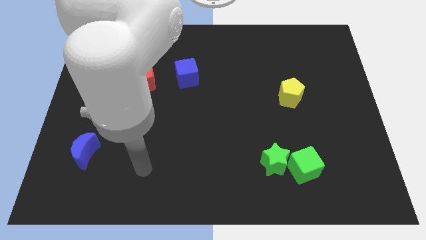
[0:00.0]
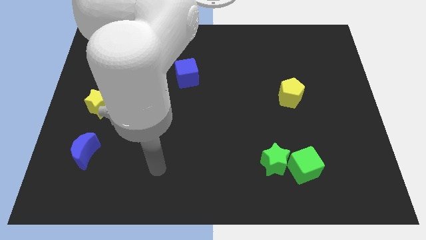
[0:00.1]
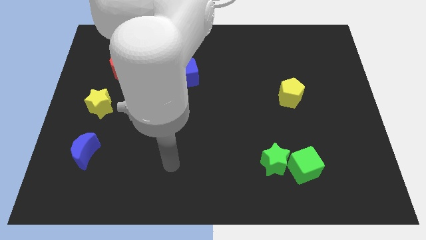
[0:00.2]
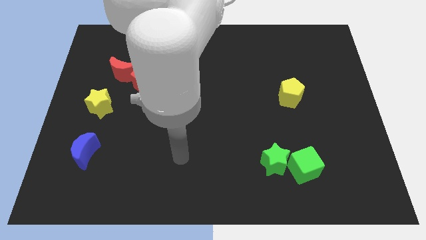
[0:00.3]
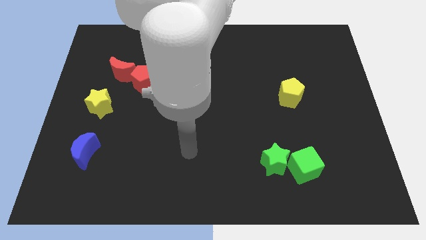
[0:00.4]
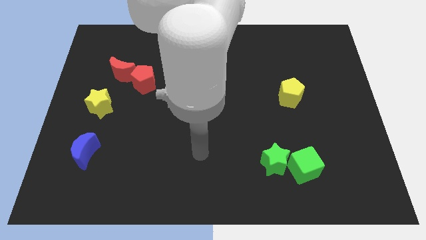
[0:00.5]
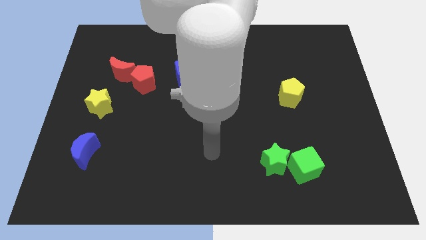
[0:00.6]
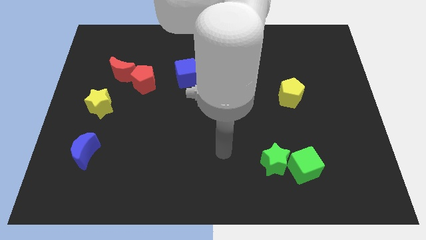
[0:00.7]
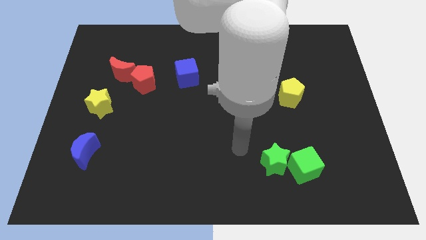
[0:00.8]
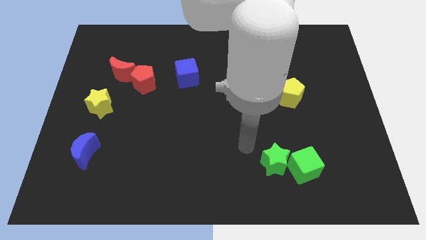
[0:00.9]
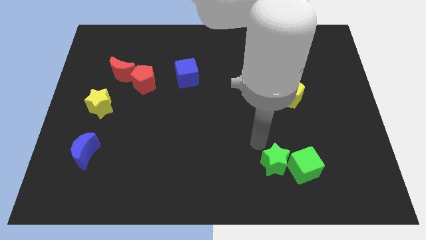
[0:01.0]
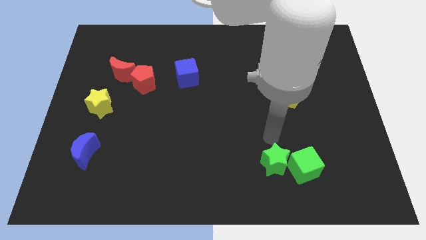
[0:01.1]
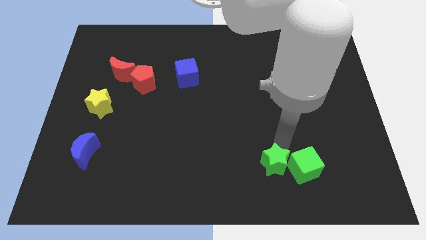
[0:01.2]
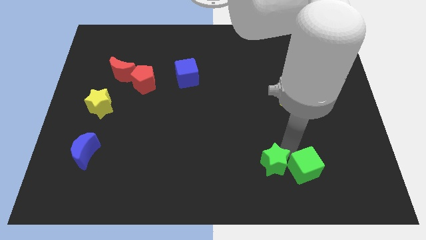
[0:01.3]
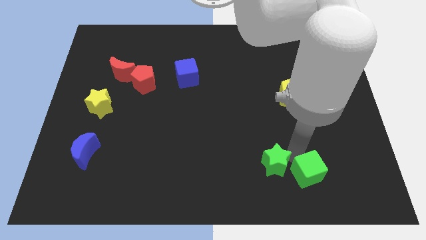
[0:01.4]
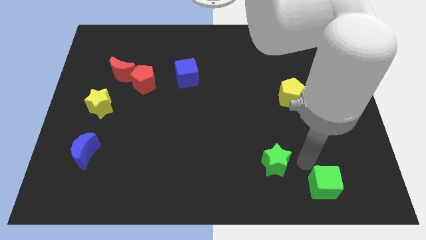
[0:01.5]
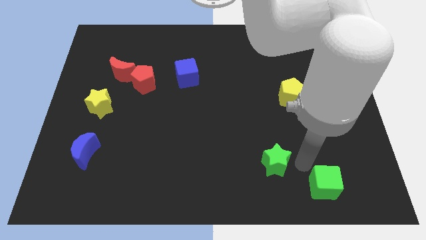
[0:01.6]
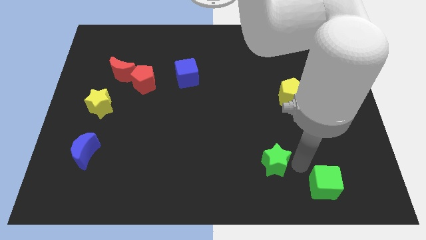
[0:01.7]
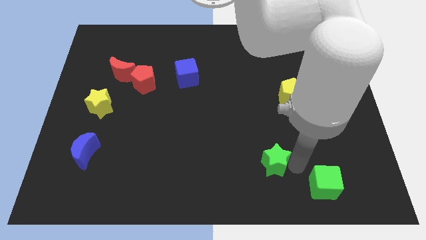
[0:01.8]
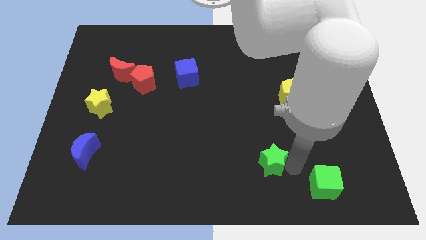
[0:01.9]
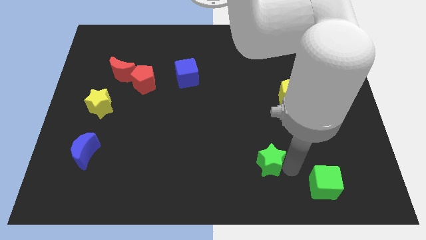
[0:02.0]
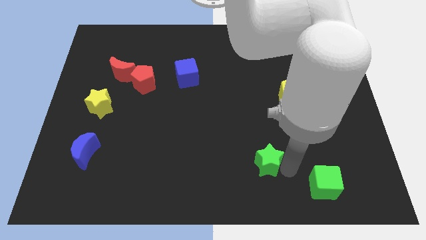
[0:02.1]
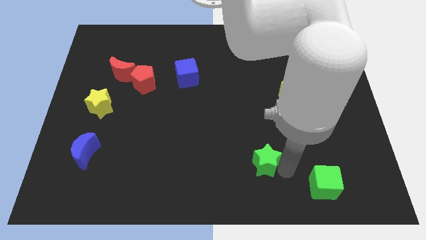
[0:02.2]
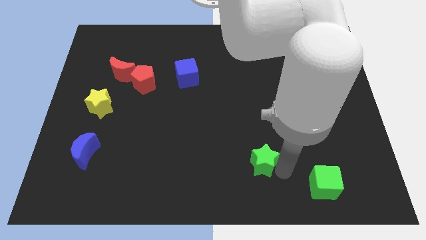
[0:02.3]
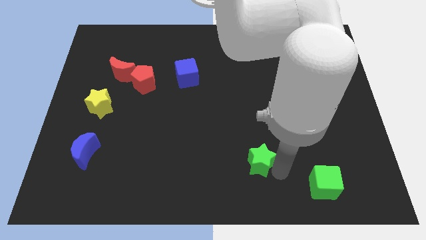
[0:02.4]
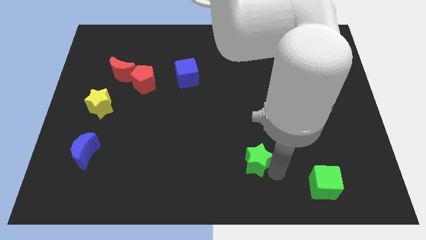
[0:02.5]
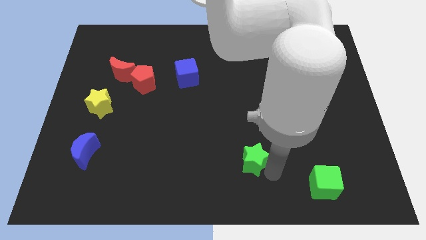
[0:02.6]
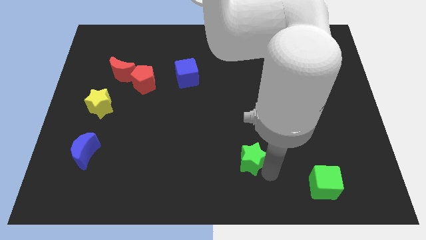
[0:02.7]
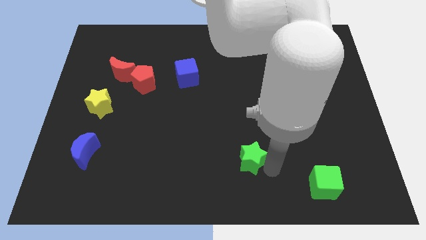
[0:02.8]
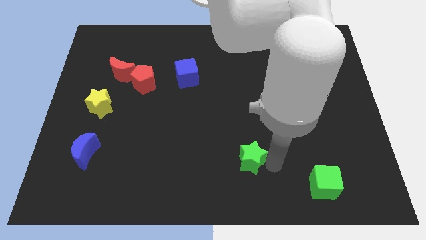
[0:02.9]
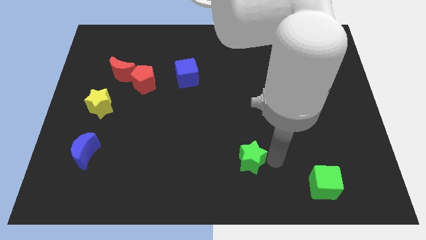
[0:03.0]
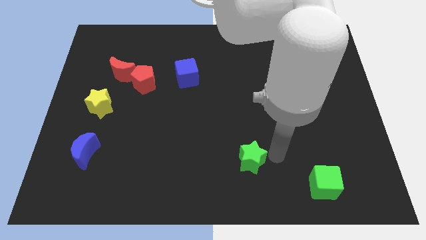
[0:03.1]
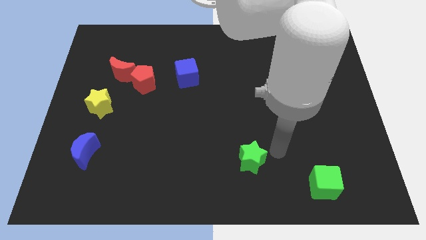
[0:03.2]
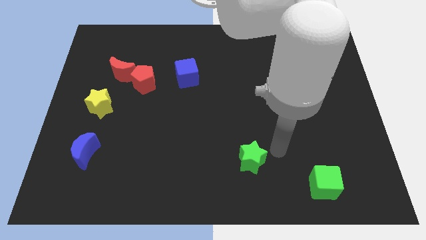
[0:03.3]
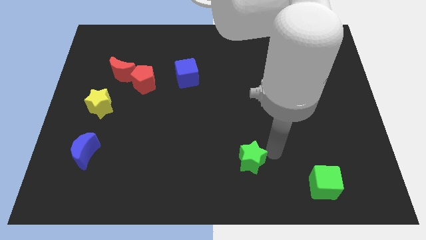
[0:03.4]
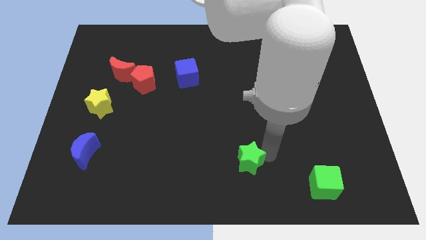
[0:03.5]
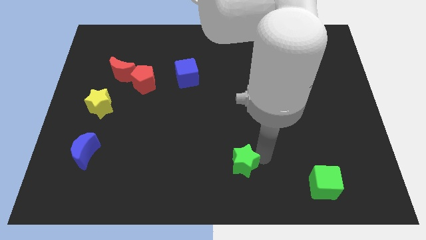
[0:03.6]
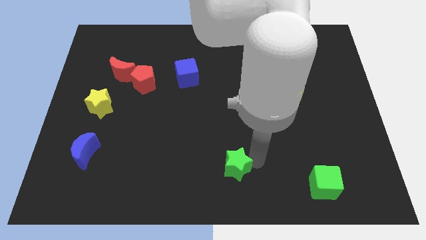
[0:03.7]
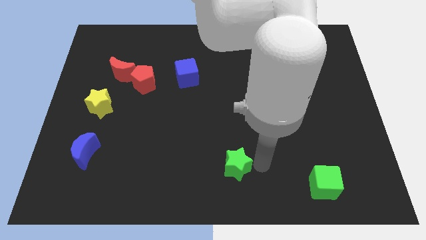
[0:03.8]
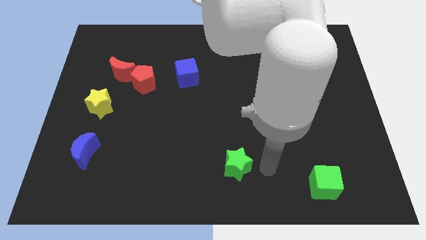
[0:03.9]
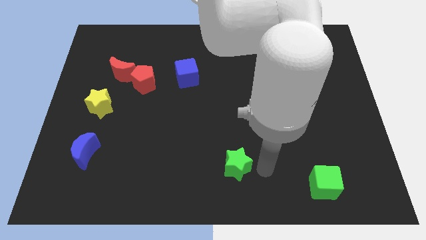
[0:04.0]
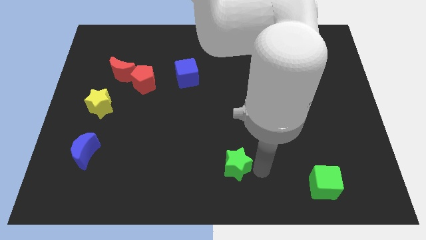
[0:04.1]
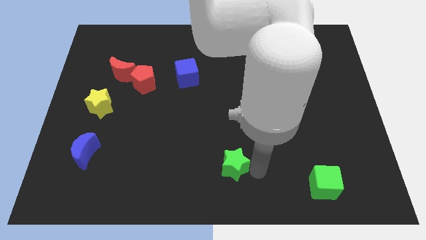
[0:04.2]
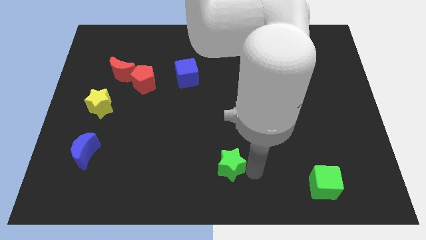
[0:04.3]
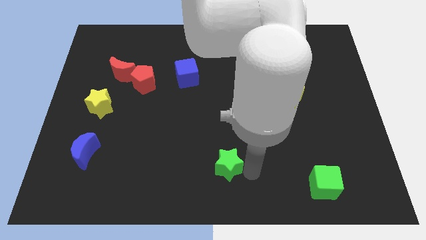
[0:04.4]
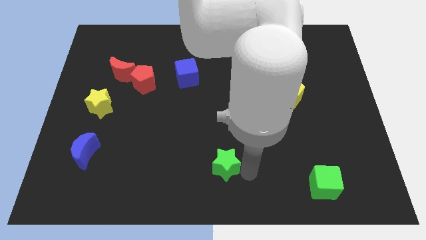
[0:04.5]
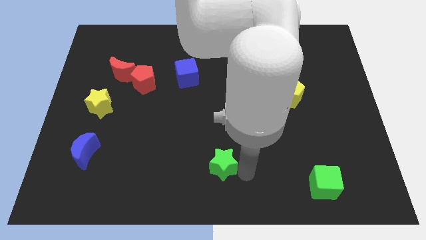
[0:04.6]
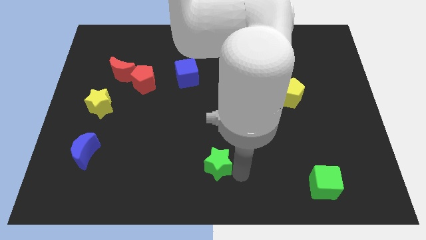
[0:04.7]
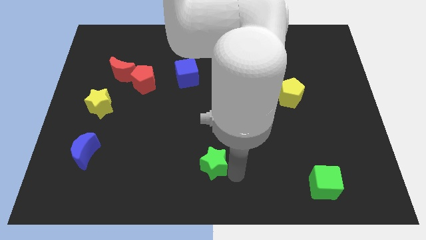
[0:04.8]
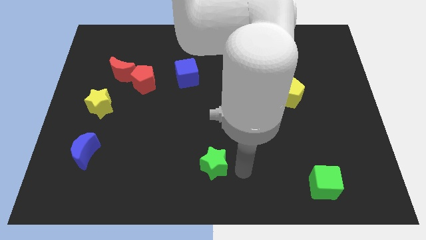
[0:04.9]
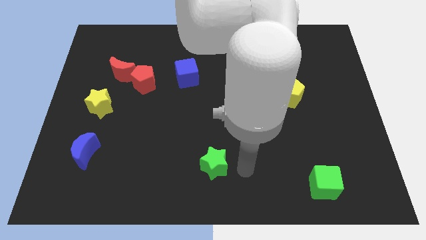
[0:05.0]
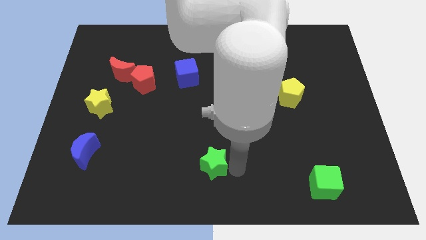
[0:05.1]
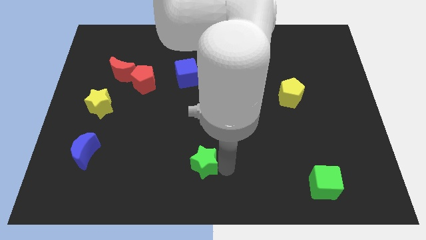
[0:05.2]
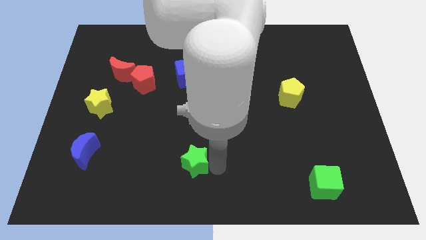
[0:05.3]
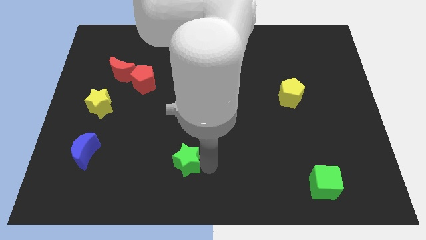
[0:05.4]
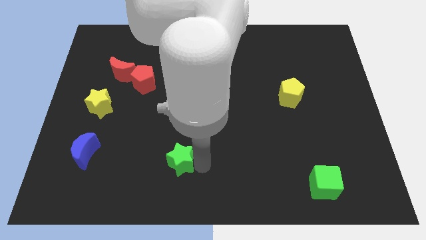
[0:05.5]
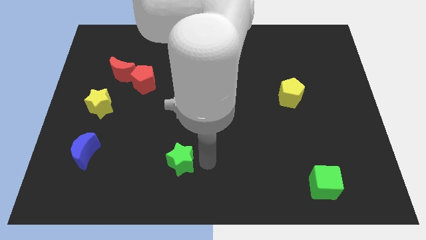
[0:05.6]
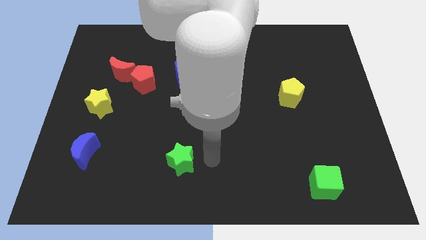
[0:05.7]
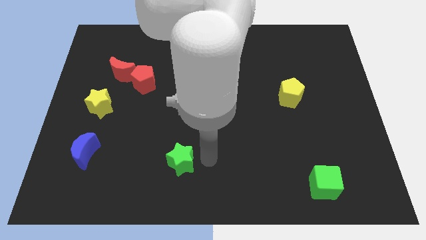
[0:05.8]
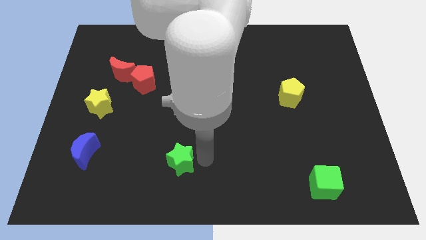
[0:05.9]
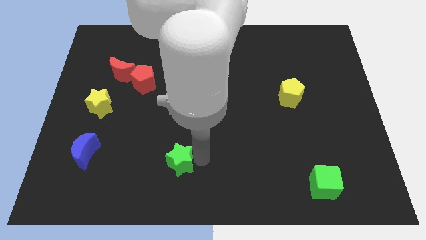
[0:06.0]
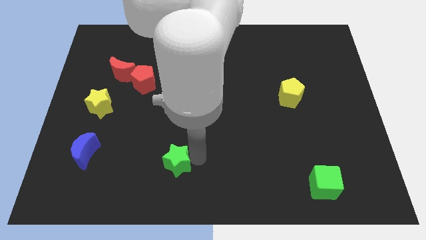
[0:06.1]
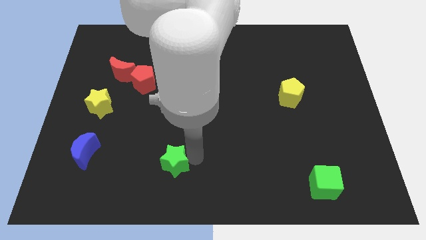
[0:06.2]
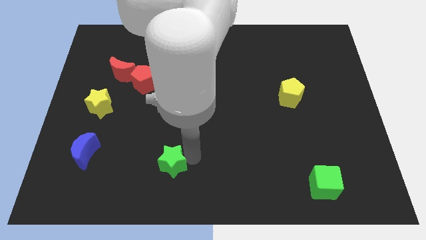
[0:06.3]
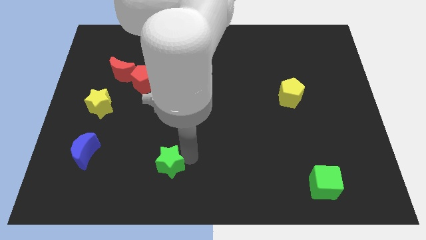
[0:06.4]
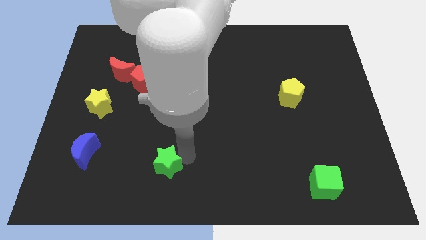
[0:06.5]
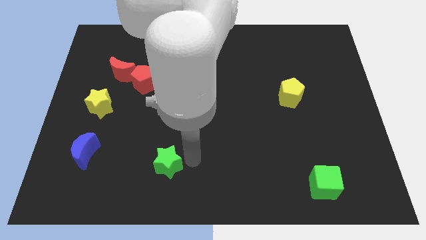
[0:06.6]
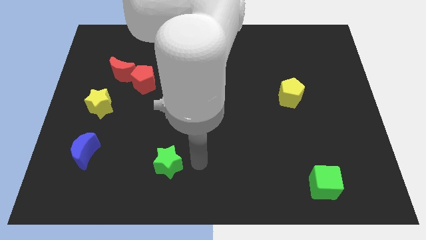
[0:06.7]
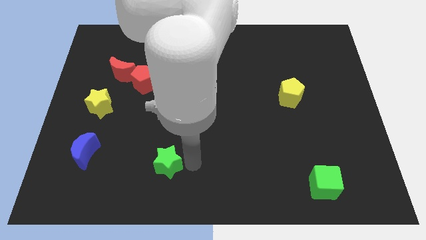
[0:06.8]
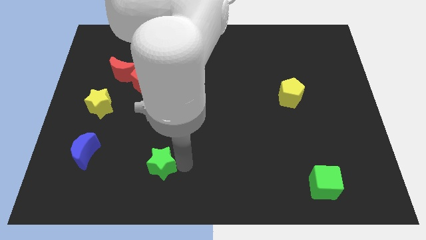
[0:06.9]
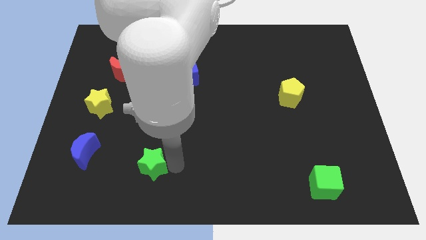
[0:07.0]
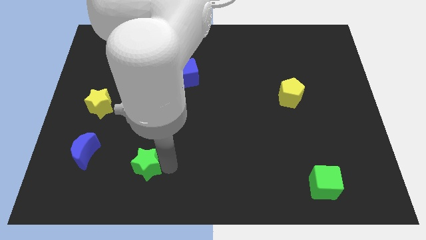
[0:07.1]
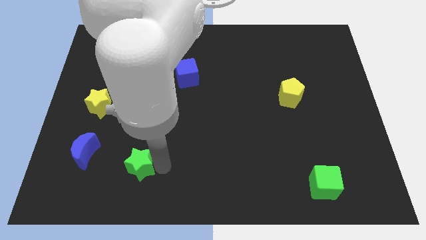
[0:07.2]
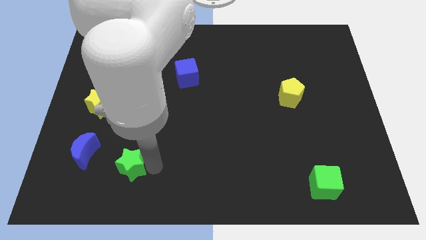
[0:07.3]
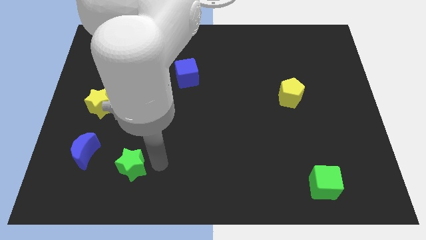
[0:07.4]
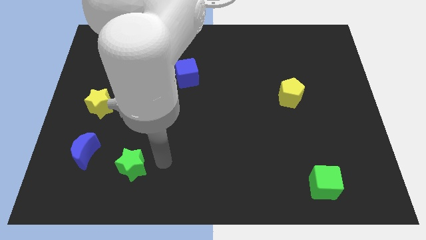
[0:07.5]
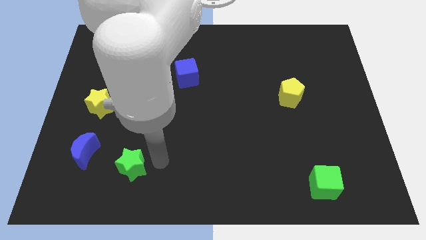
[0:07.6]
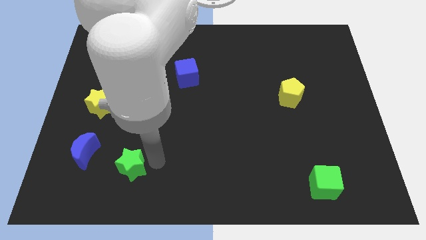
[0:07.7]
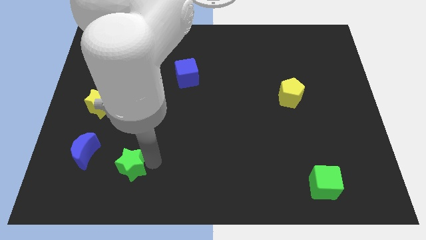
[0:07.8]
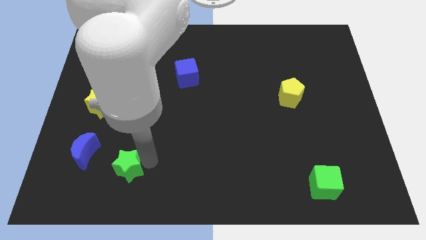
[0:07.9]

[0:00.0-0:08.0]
slide the green star to the bottom right of the blue moon
